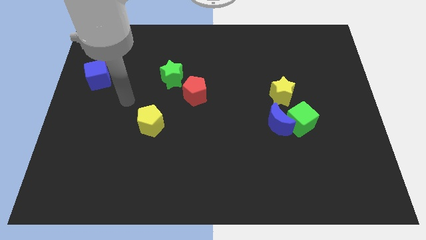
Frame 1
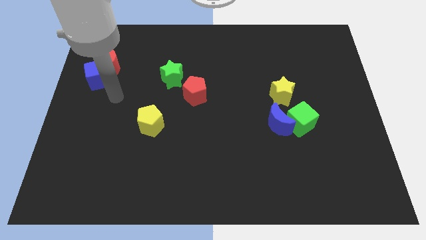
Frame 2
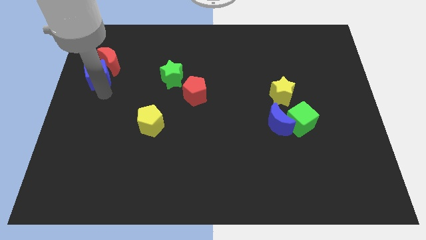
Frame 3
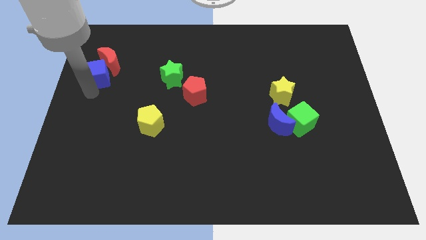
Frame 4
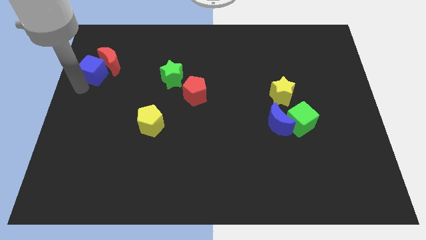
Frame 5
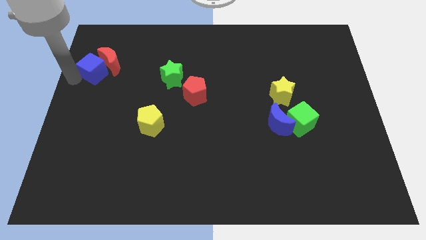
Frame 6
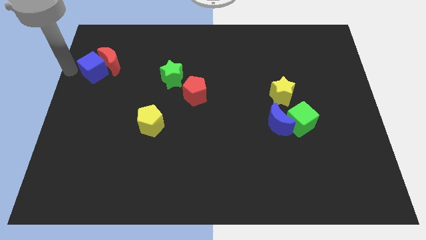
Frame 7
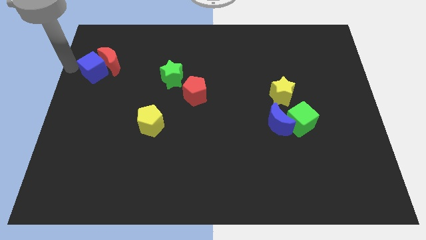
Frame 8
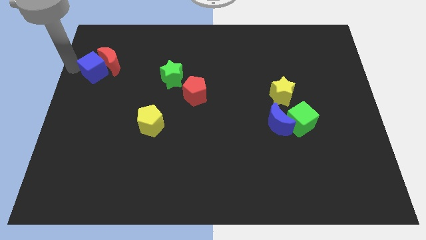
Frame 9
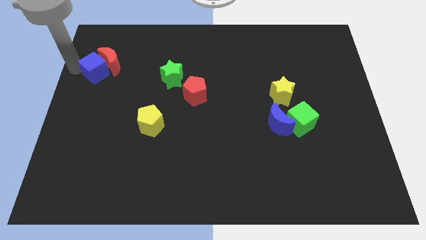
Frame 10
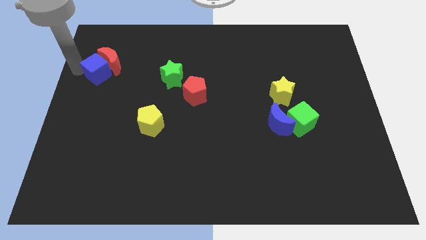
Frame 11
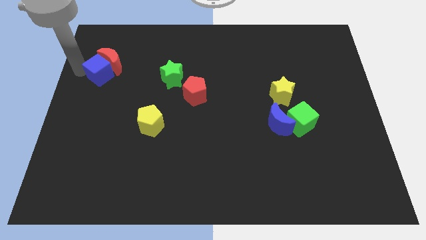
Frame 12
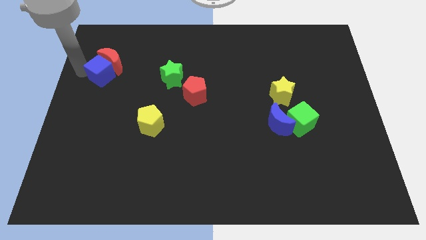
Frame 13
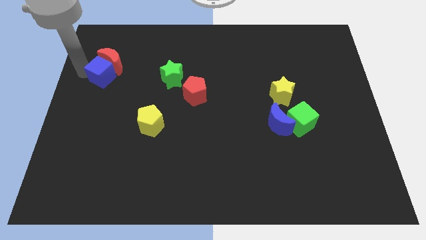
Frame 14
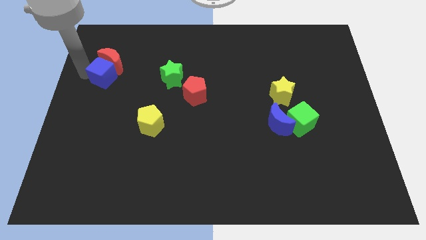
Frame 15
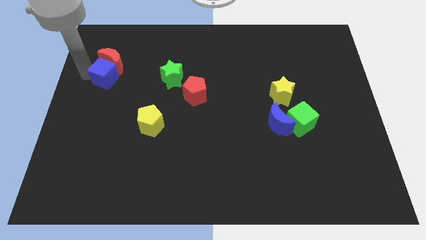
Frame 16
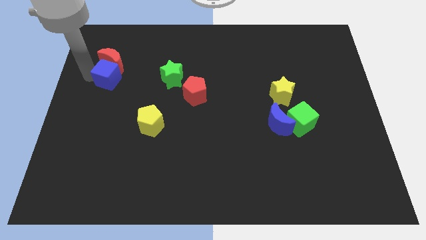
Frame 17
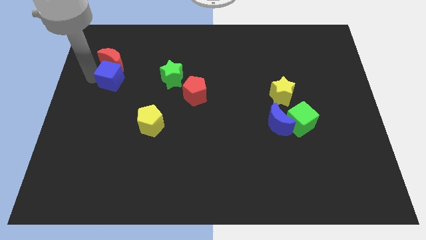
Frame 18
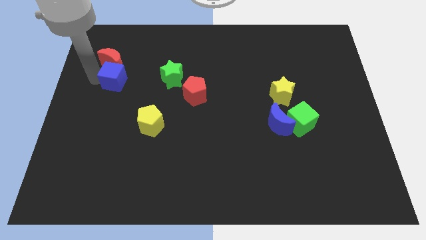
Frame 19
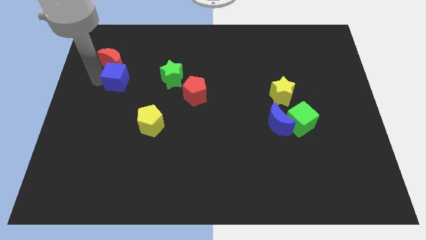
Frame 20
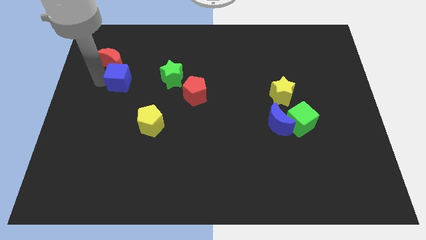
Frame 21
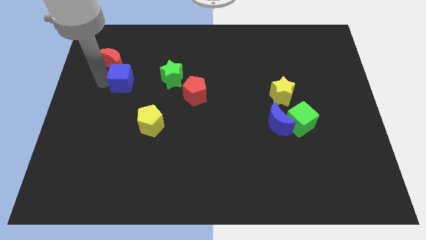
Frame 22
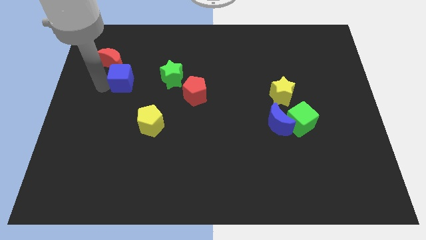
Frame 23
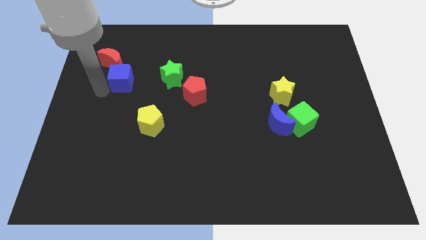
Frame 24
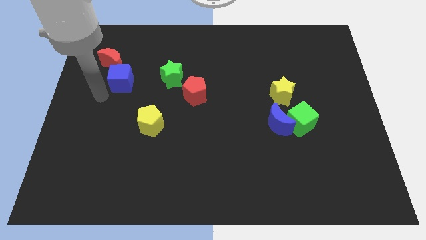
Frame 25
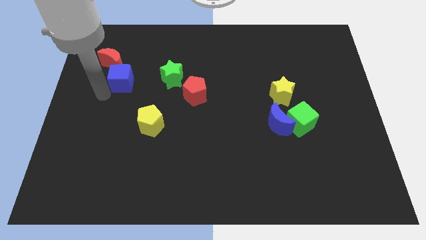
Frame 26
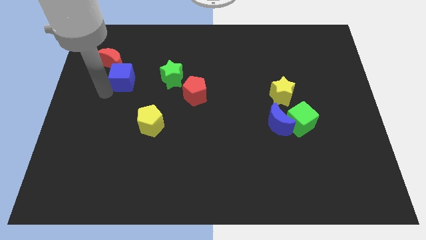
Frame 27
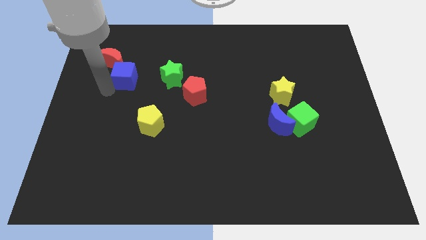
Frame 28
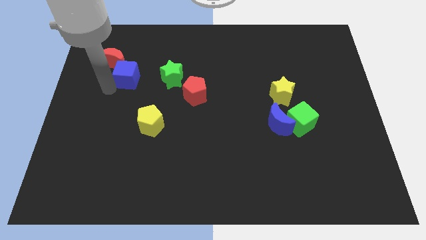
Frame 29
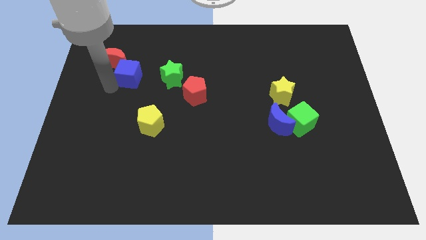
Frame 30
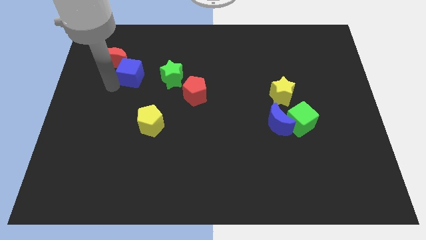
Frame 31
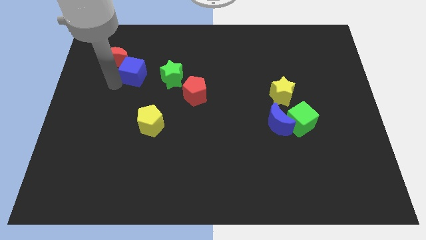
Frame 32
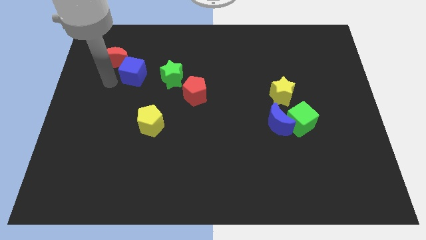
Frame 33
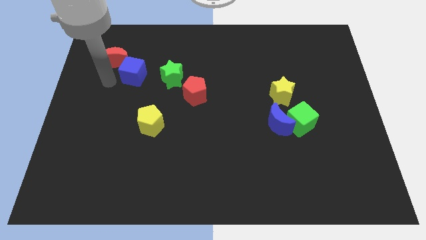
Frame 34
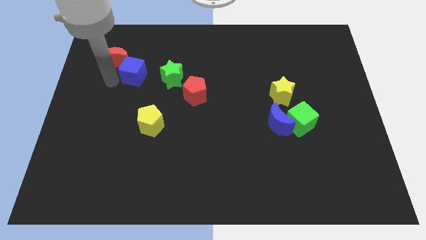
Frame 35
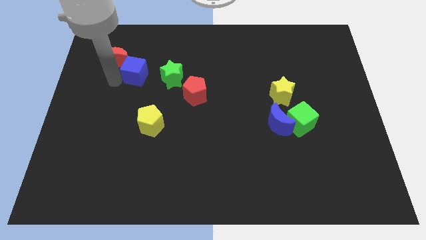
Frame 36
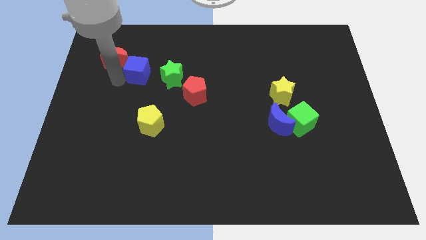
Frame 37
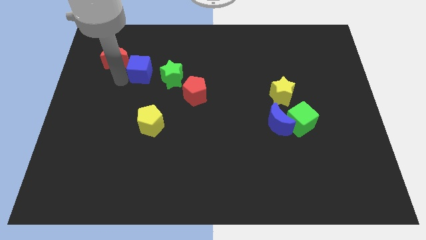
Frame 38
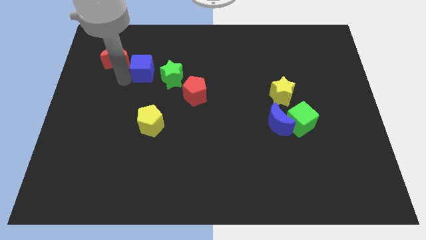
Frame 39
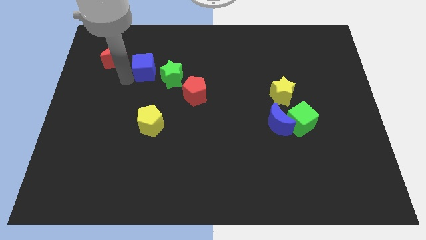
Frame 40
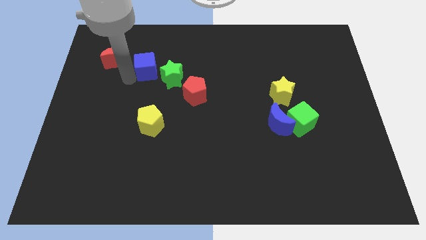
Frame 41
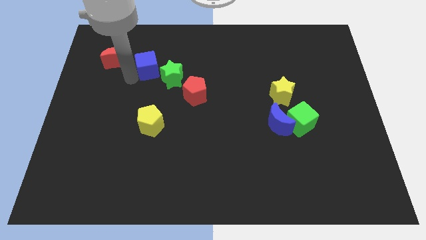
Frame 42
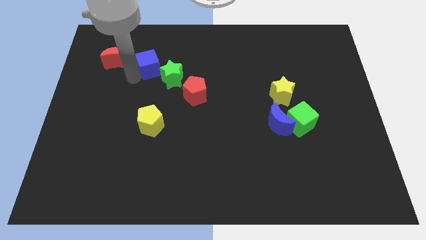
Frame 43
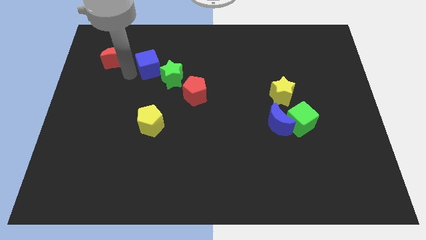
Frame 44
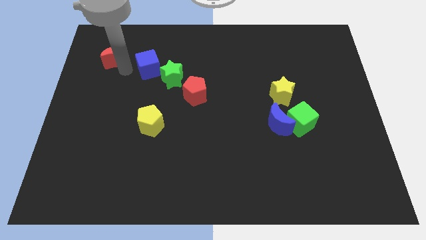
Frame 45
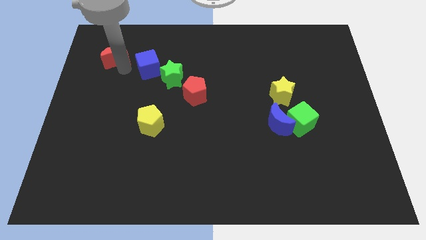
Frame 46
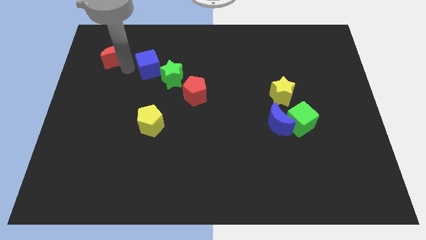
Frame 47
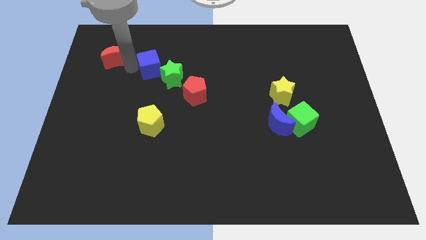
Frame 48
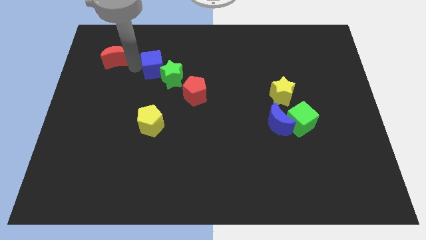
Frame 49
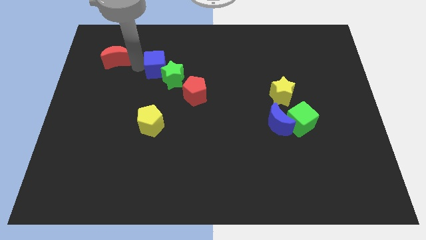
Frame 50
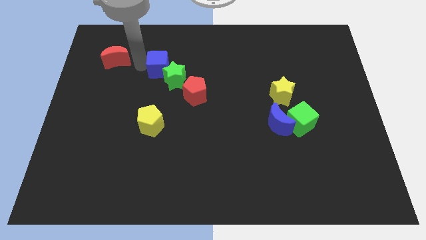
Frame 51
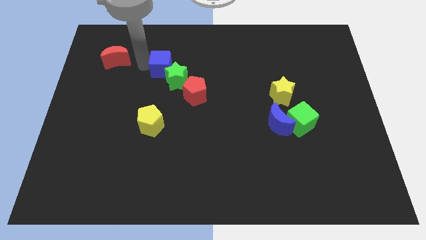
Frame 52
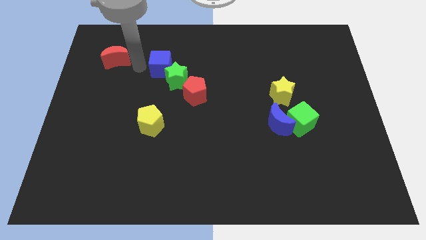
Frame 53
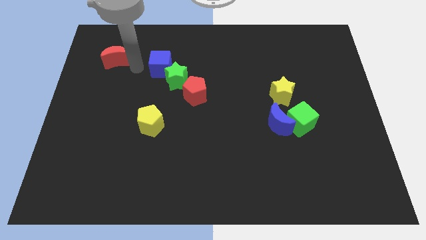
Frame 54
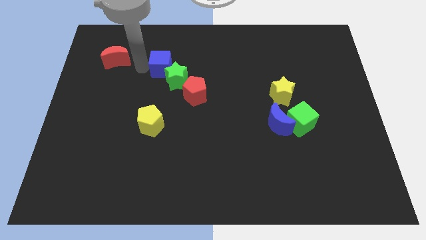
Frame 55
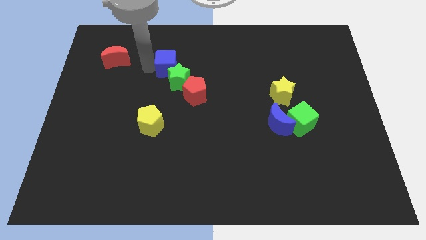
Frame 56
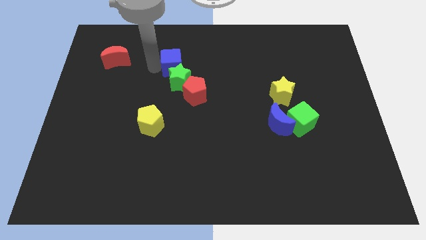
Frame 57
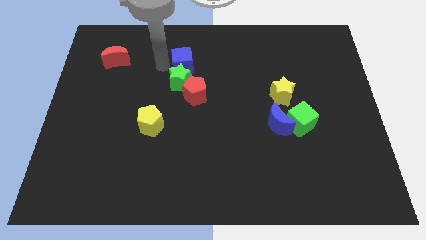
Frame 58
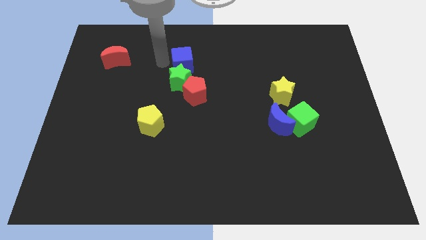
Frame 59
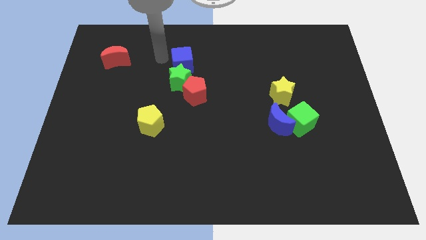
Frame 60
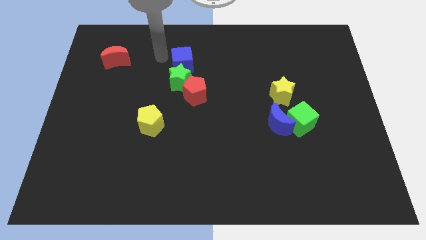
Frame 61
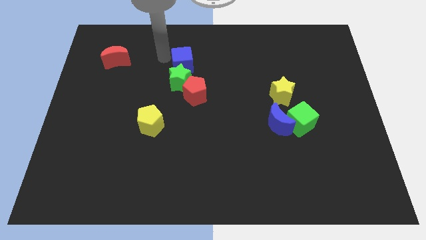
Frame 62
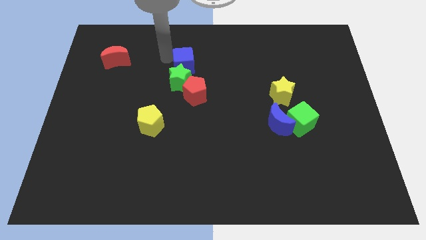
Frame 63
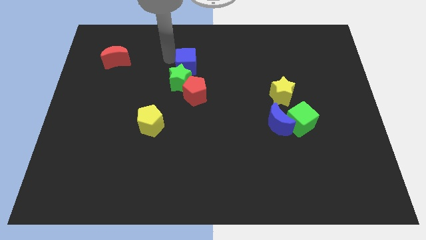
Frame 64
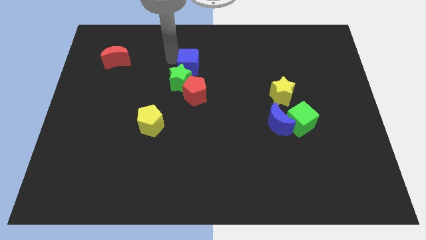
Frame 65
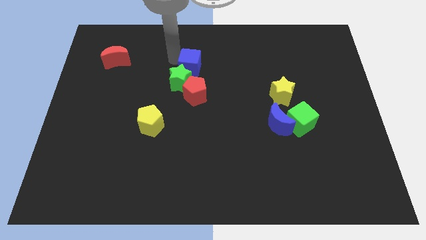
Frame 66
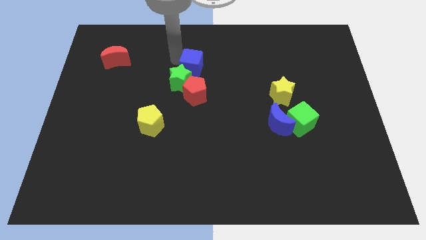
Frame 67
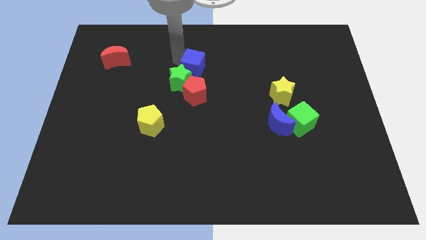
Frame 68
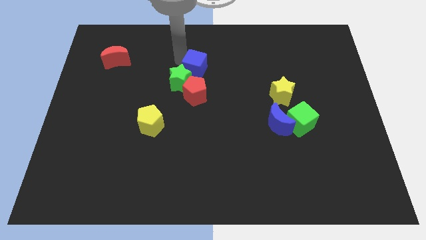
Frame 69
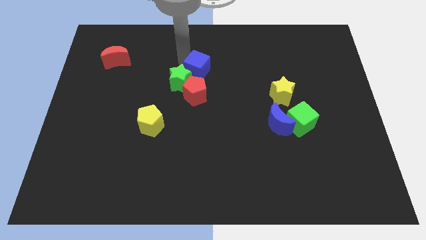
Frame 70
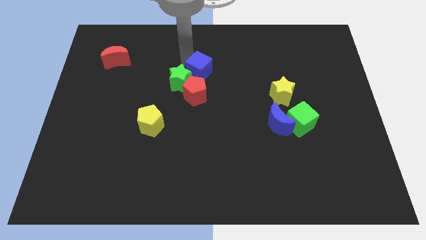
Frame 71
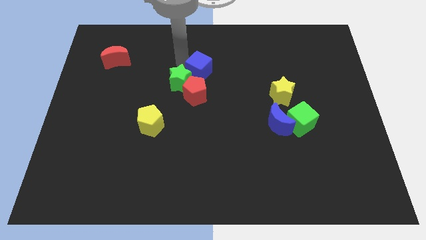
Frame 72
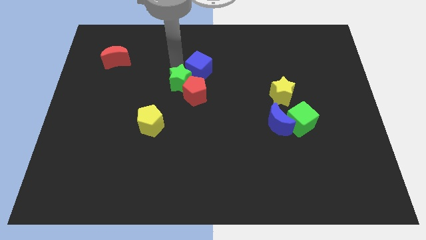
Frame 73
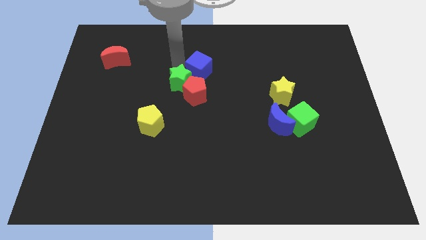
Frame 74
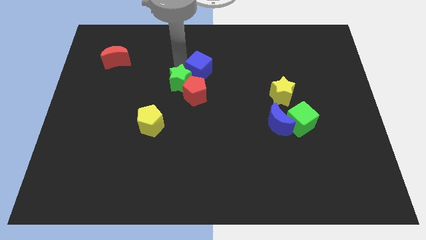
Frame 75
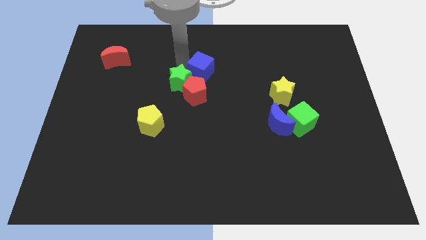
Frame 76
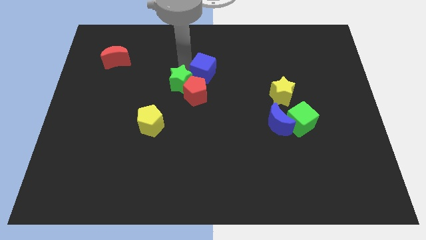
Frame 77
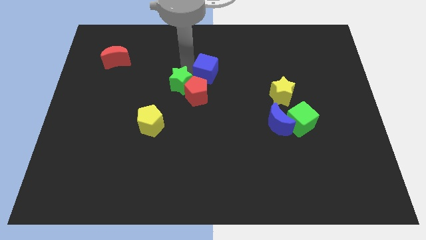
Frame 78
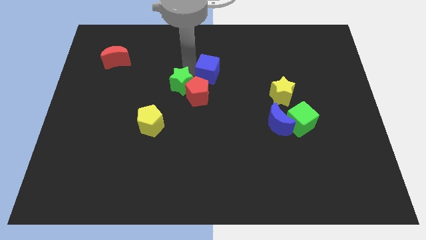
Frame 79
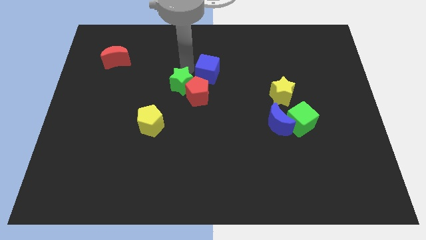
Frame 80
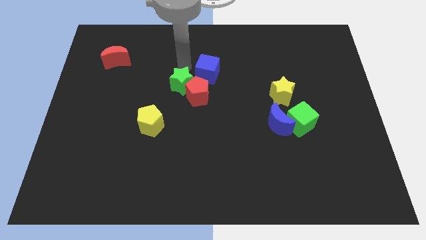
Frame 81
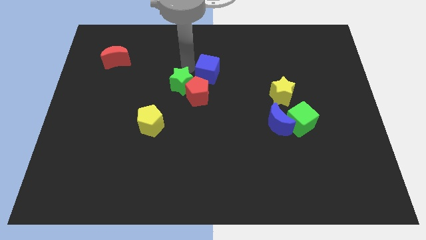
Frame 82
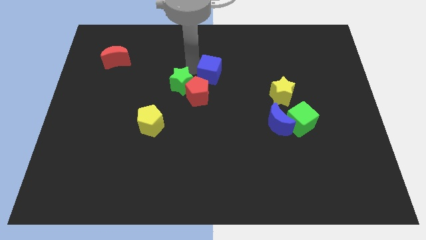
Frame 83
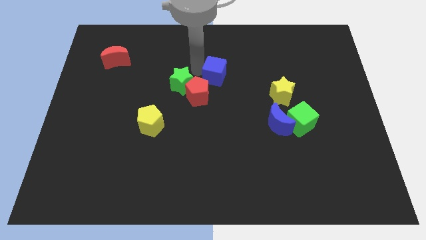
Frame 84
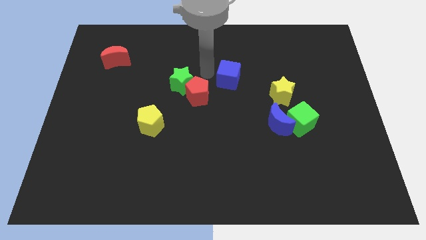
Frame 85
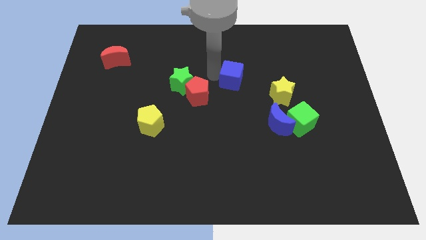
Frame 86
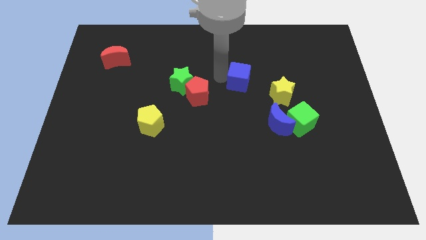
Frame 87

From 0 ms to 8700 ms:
move the blue cube to the top left side of the yellow star
